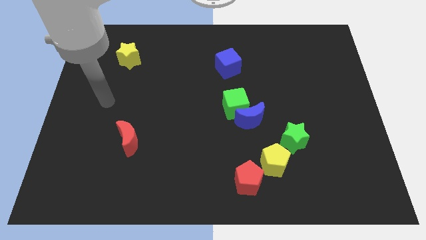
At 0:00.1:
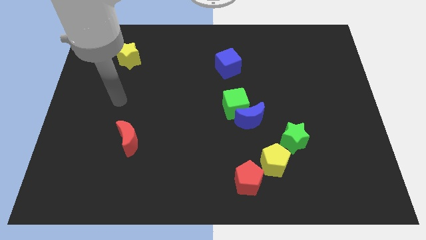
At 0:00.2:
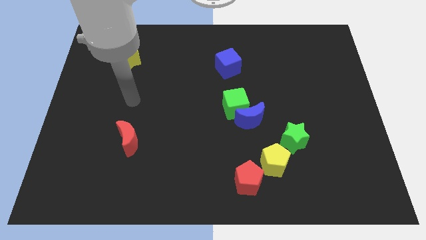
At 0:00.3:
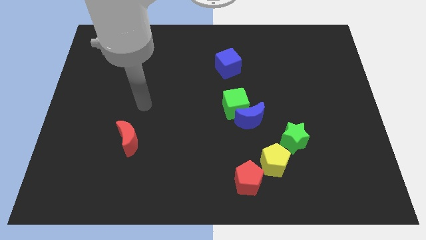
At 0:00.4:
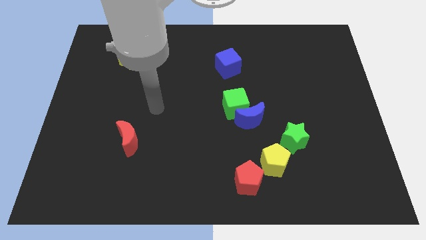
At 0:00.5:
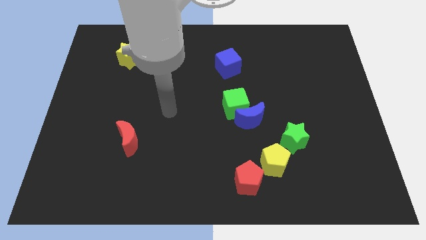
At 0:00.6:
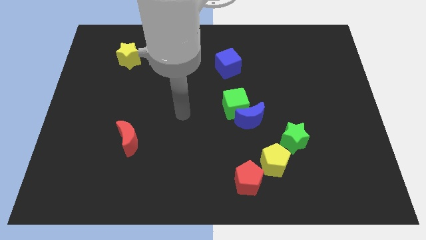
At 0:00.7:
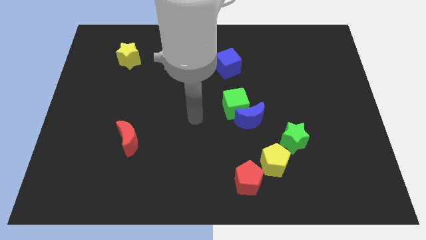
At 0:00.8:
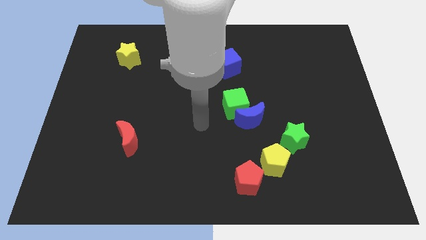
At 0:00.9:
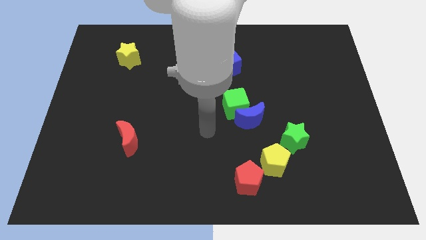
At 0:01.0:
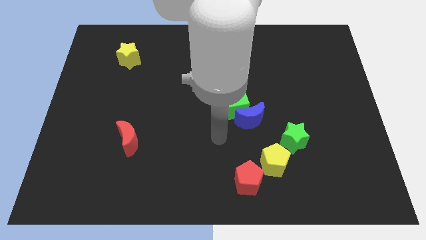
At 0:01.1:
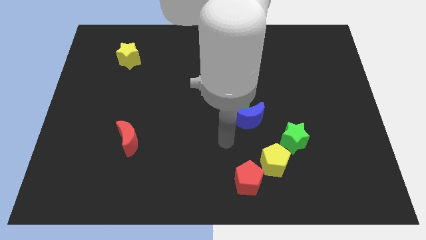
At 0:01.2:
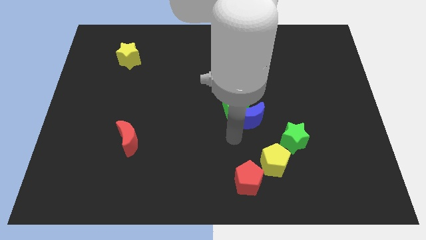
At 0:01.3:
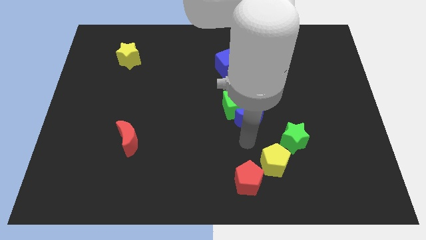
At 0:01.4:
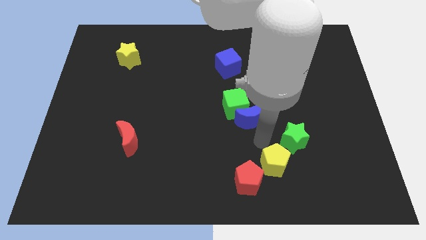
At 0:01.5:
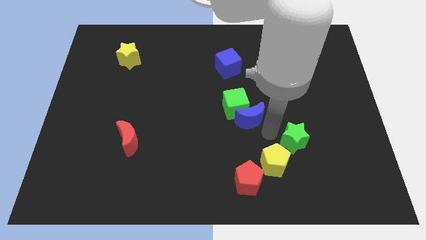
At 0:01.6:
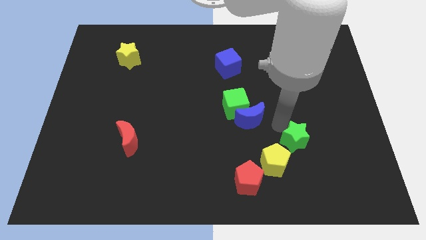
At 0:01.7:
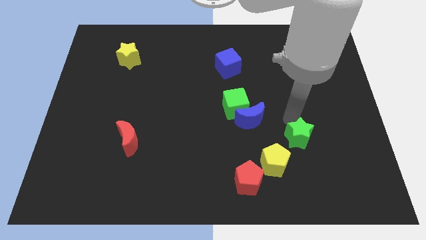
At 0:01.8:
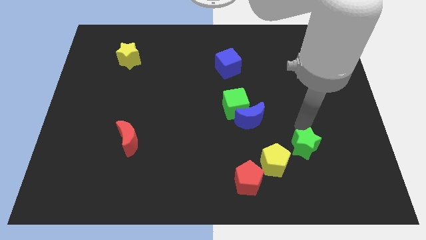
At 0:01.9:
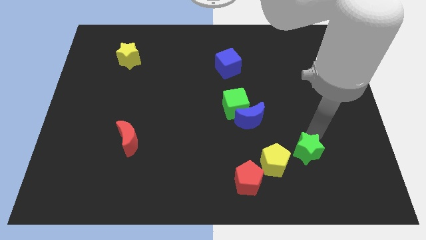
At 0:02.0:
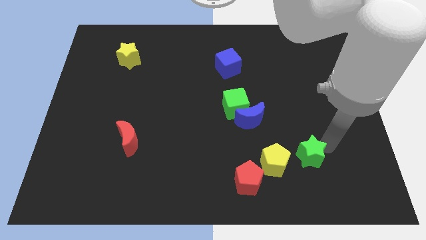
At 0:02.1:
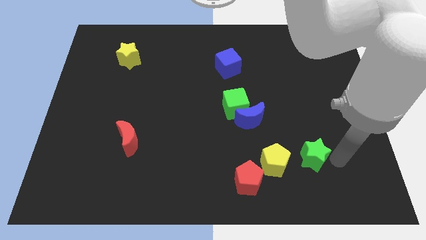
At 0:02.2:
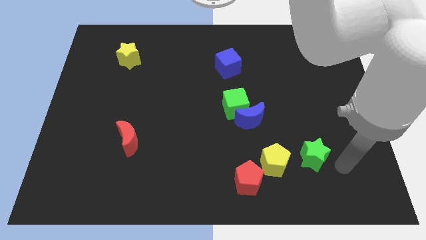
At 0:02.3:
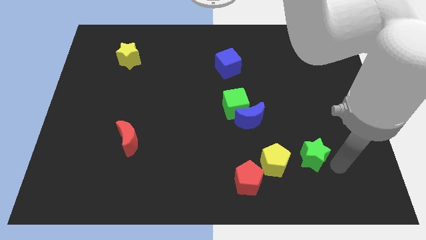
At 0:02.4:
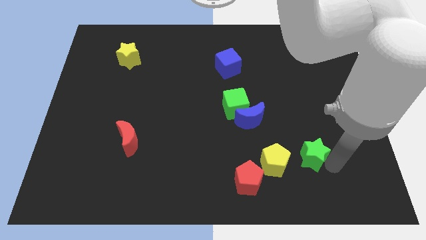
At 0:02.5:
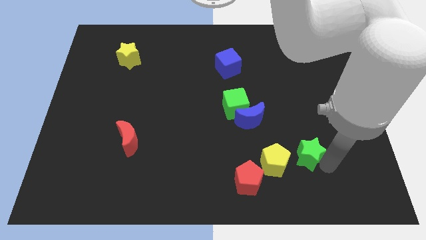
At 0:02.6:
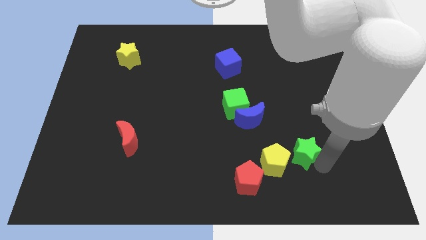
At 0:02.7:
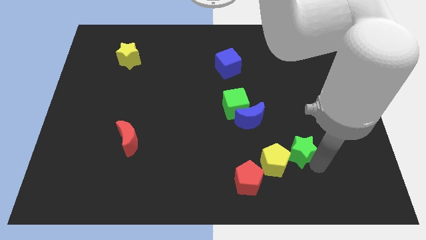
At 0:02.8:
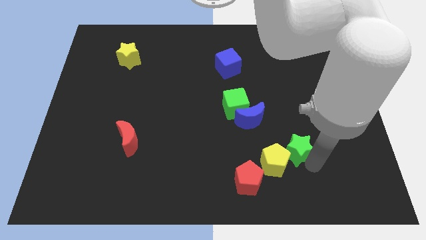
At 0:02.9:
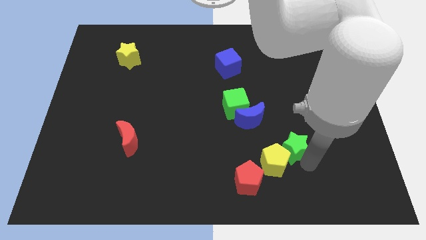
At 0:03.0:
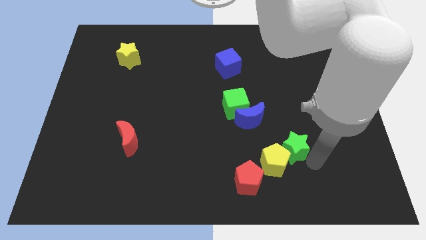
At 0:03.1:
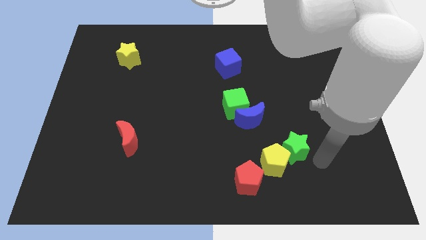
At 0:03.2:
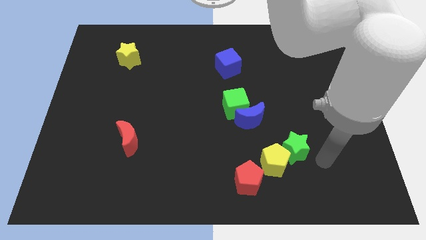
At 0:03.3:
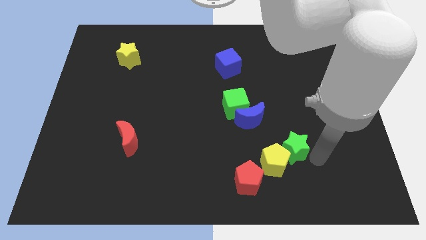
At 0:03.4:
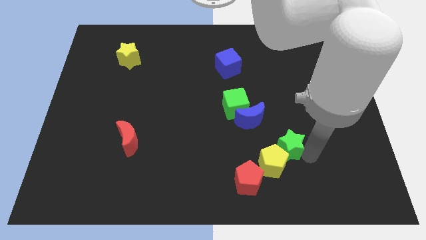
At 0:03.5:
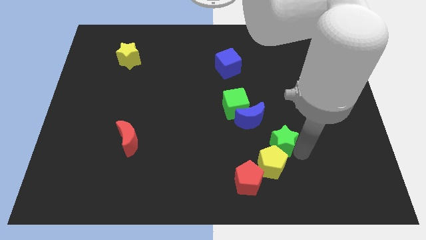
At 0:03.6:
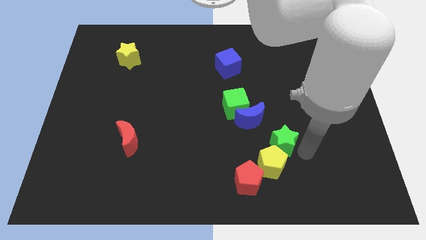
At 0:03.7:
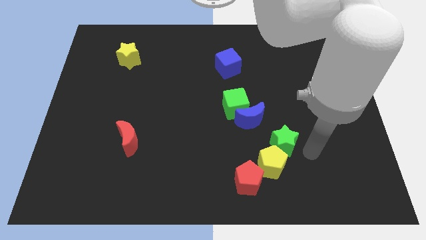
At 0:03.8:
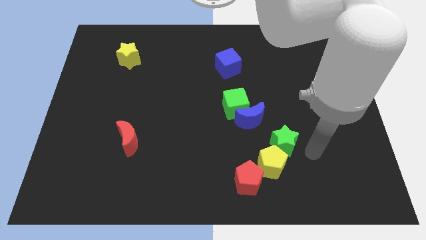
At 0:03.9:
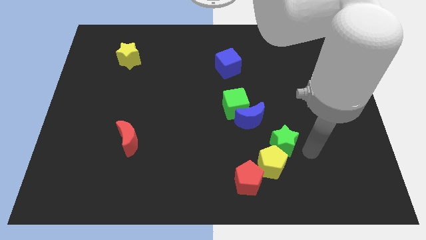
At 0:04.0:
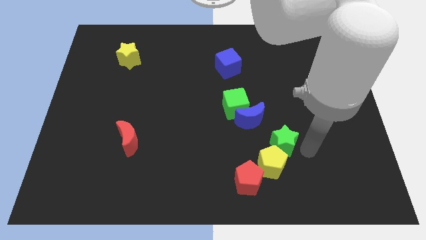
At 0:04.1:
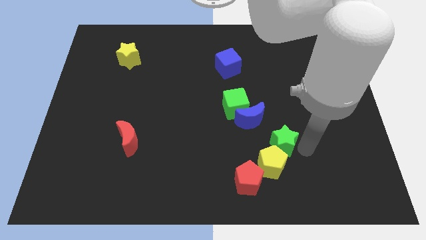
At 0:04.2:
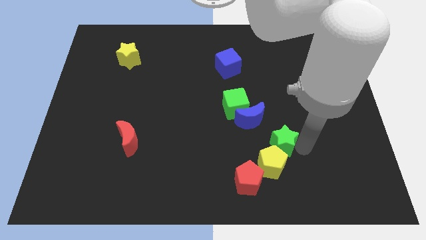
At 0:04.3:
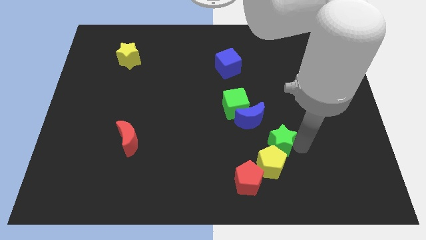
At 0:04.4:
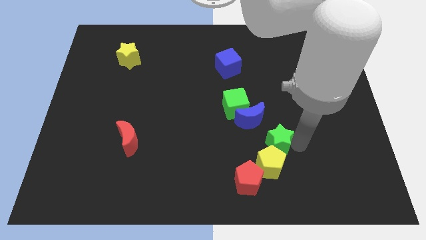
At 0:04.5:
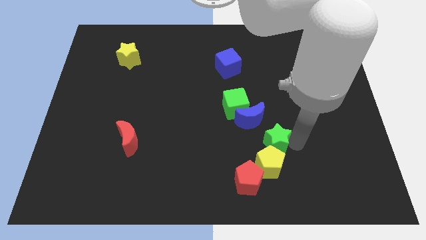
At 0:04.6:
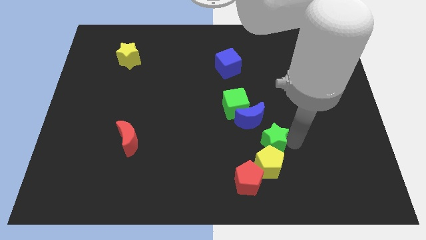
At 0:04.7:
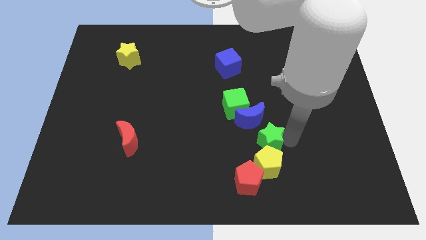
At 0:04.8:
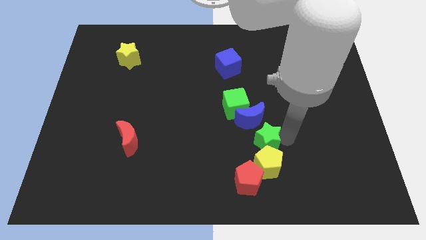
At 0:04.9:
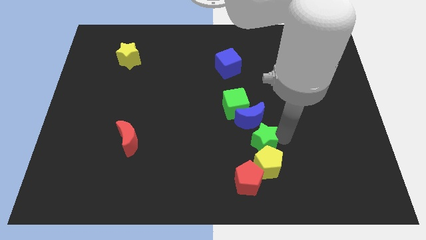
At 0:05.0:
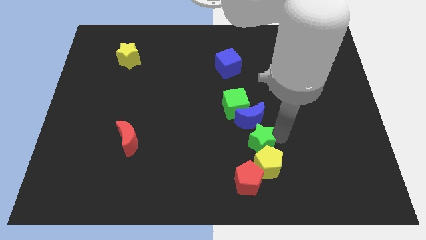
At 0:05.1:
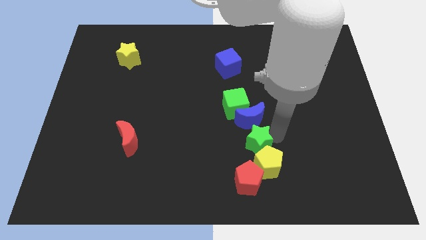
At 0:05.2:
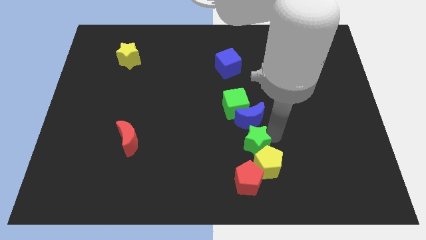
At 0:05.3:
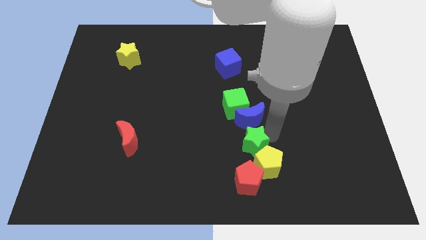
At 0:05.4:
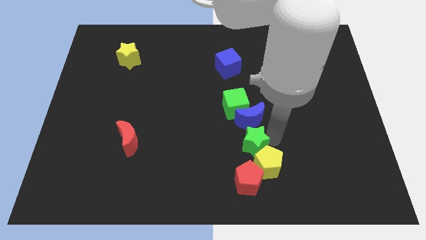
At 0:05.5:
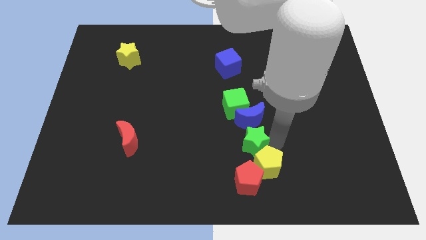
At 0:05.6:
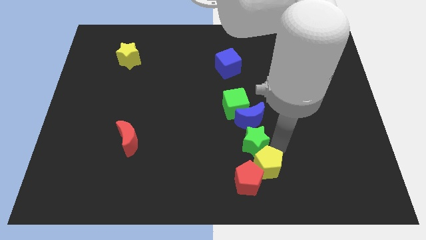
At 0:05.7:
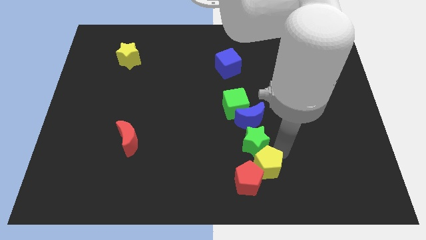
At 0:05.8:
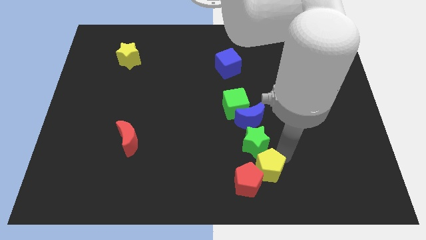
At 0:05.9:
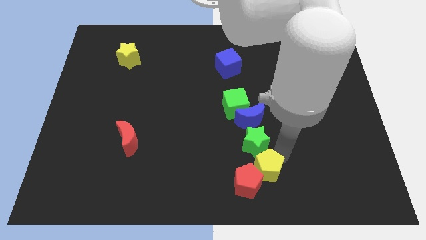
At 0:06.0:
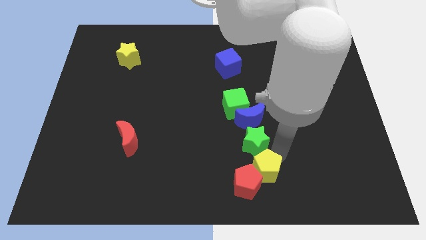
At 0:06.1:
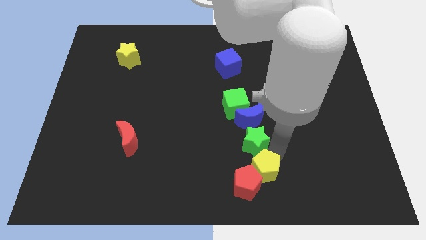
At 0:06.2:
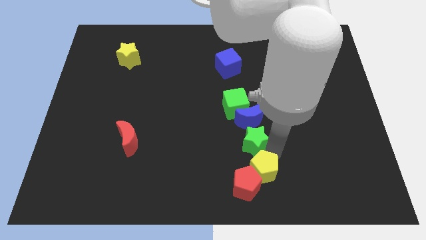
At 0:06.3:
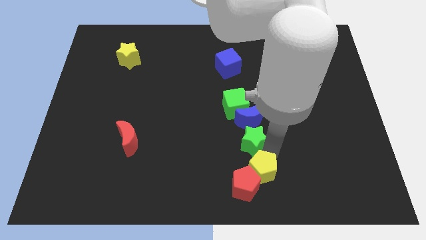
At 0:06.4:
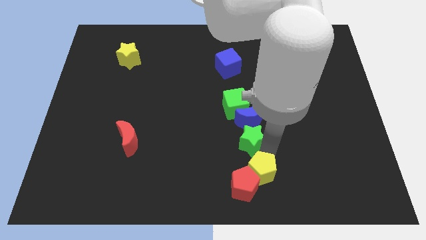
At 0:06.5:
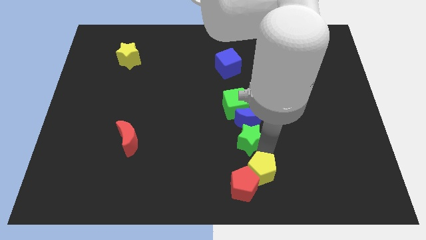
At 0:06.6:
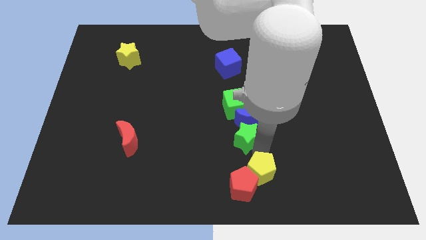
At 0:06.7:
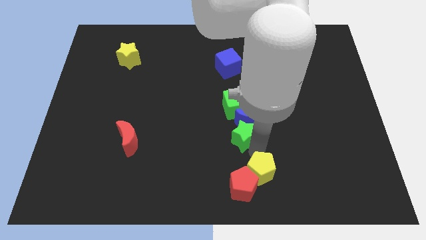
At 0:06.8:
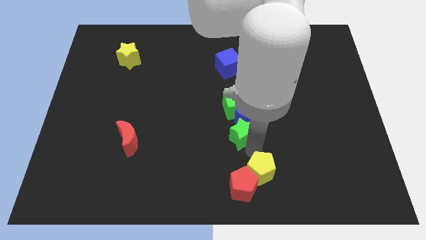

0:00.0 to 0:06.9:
slide the green star to the center
